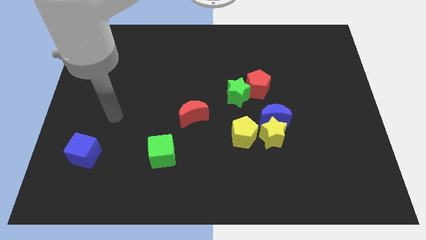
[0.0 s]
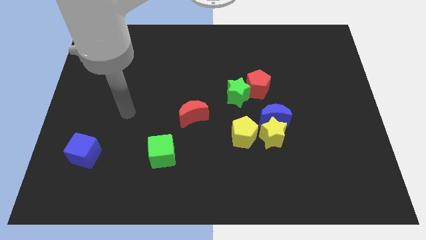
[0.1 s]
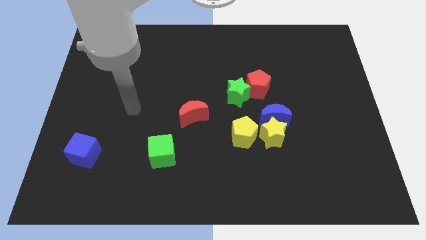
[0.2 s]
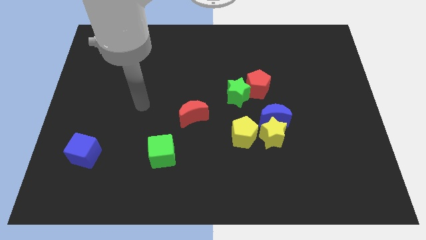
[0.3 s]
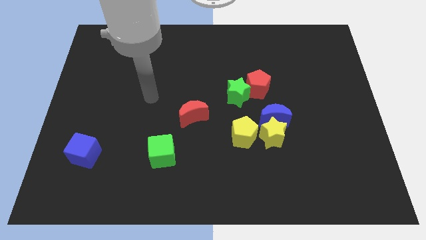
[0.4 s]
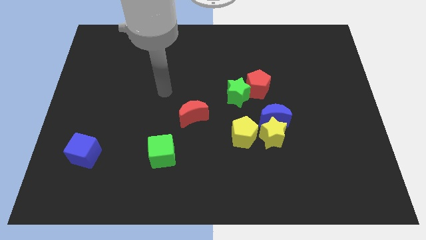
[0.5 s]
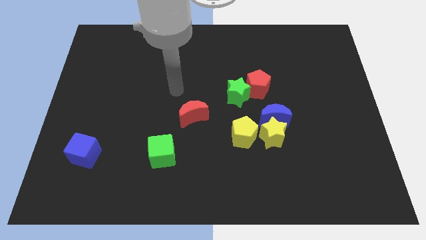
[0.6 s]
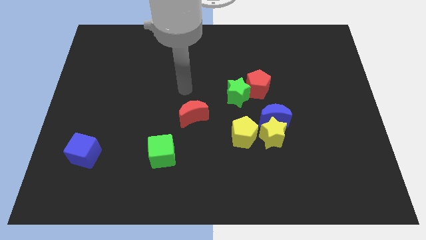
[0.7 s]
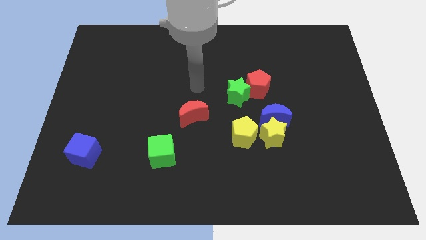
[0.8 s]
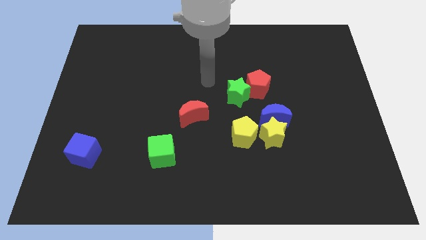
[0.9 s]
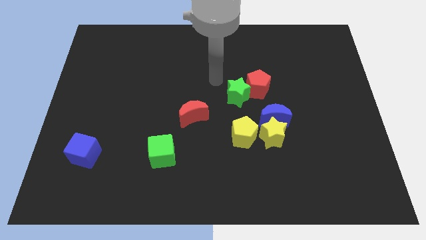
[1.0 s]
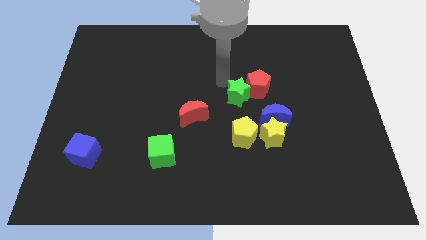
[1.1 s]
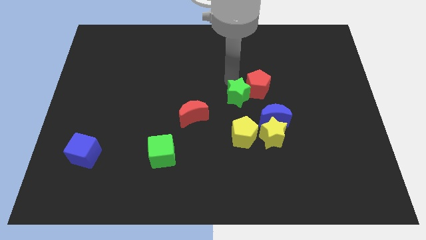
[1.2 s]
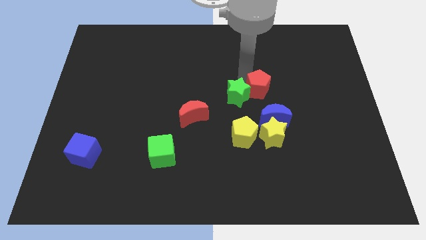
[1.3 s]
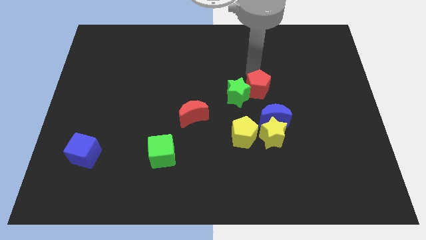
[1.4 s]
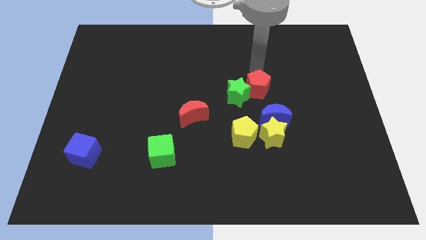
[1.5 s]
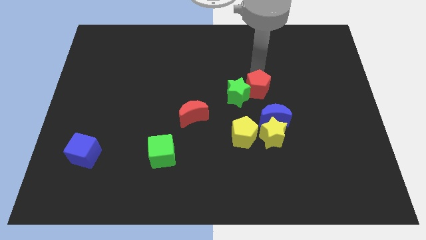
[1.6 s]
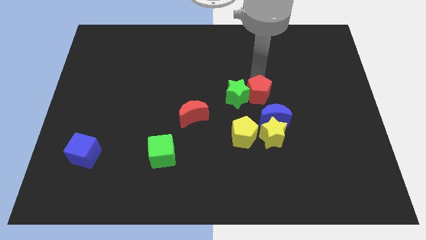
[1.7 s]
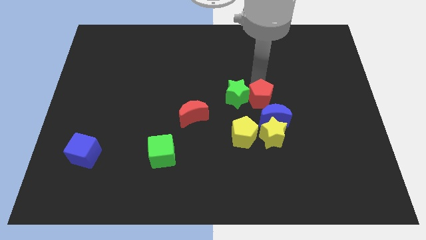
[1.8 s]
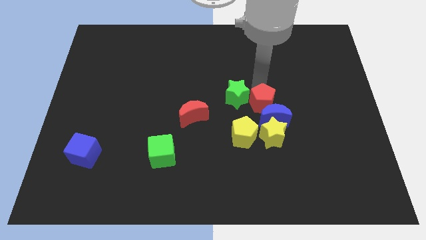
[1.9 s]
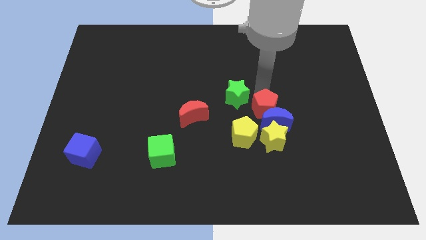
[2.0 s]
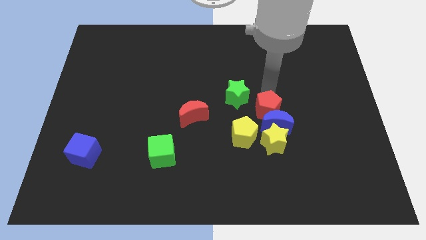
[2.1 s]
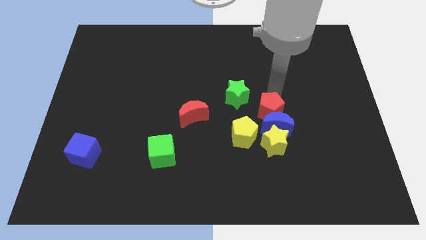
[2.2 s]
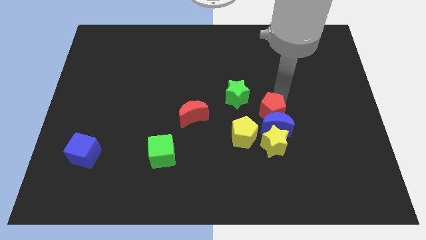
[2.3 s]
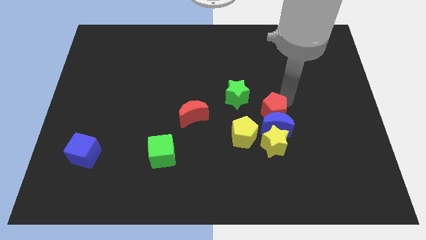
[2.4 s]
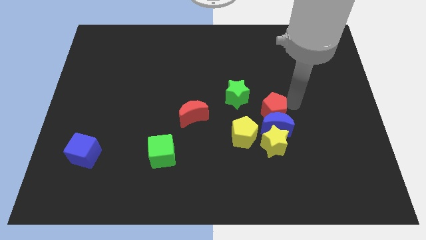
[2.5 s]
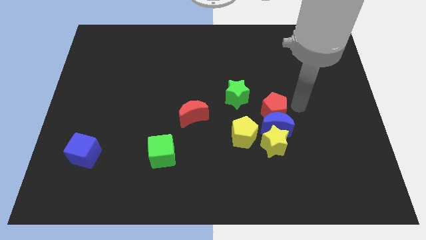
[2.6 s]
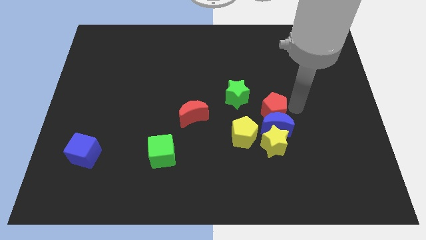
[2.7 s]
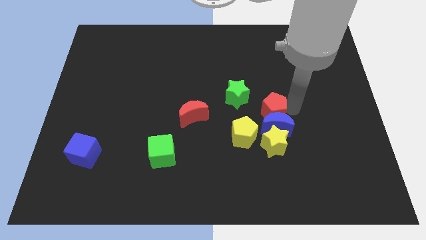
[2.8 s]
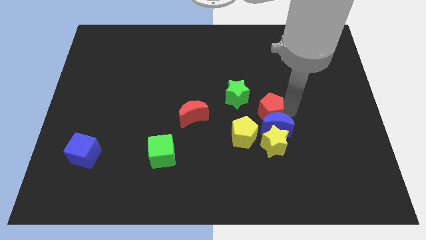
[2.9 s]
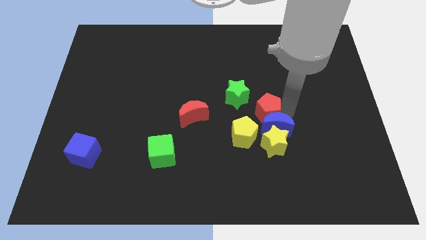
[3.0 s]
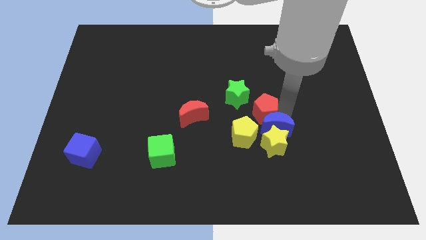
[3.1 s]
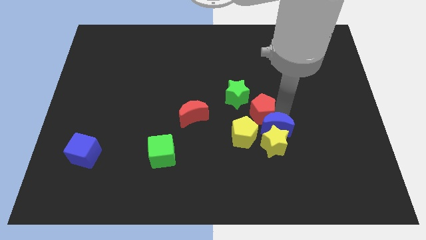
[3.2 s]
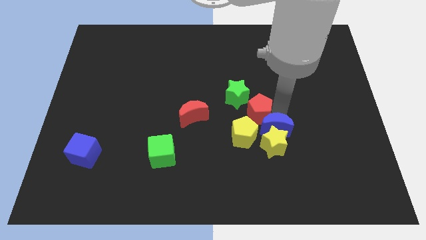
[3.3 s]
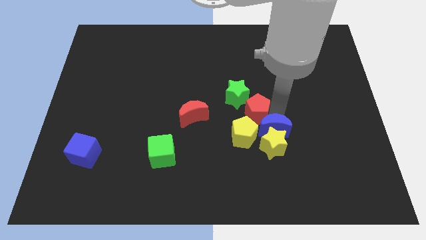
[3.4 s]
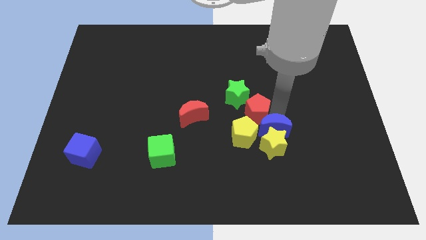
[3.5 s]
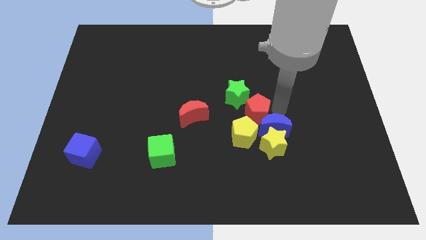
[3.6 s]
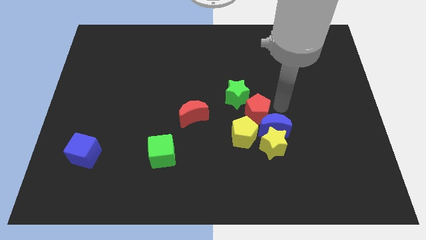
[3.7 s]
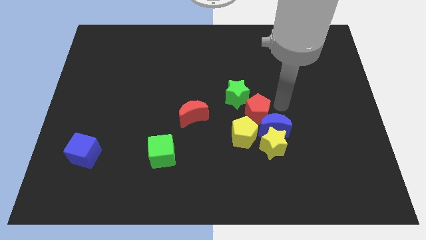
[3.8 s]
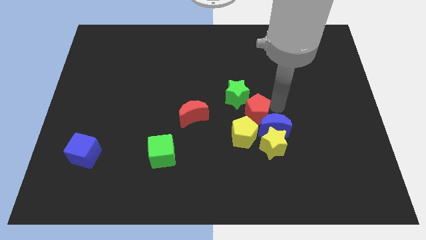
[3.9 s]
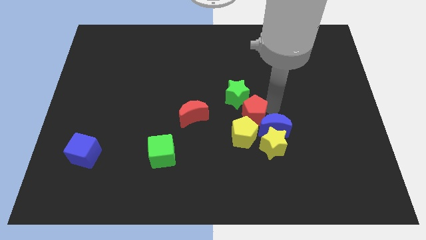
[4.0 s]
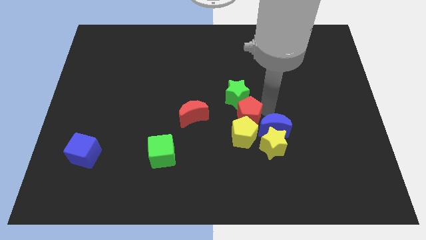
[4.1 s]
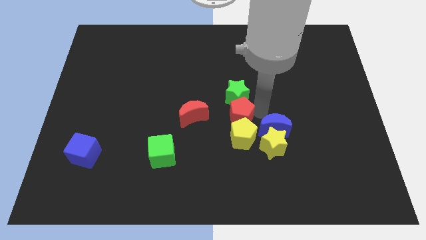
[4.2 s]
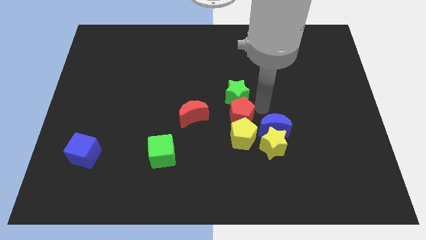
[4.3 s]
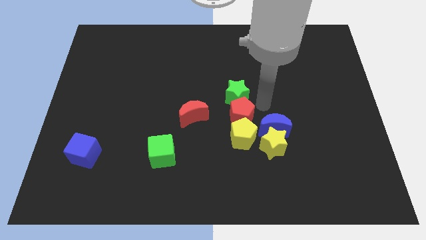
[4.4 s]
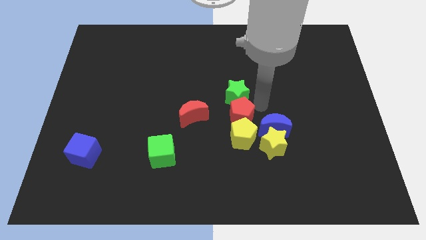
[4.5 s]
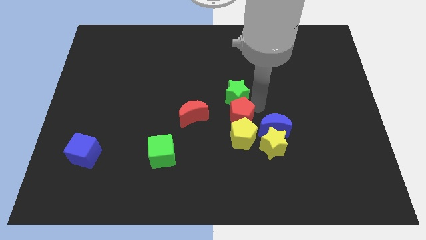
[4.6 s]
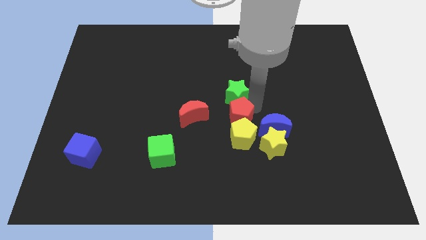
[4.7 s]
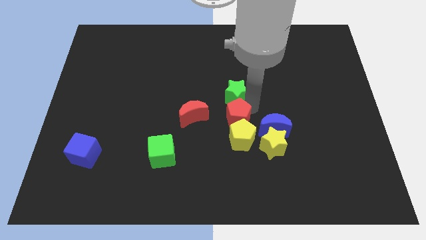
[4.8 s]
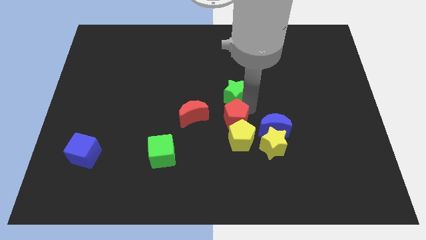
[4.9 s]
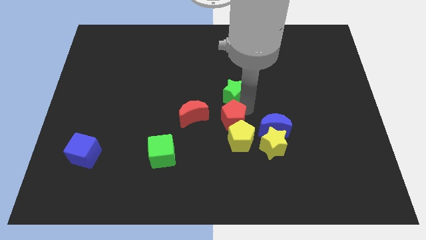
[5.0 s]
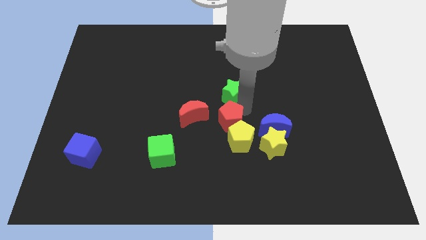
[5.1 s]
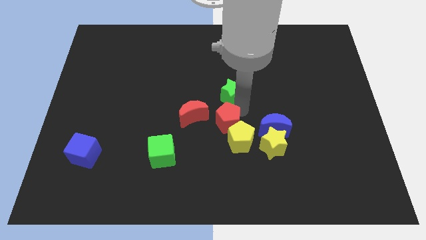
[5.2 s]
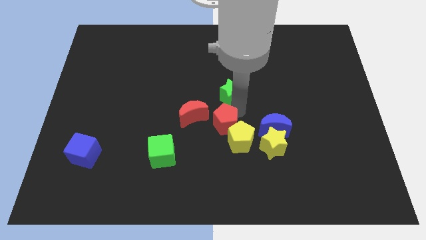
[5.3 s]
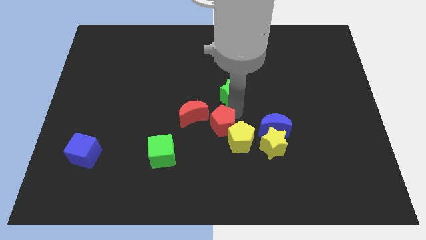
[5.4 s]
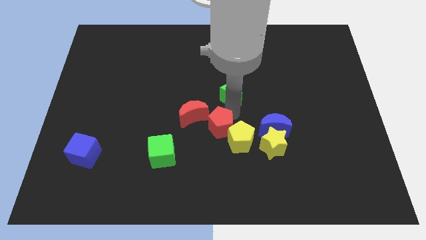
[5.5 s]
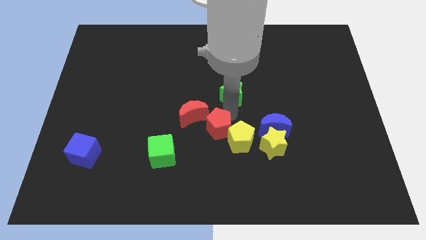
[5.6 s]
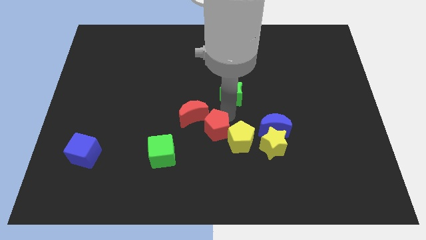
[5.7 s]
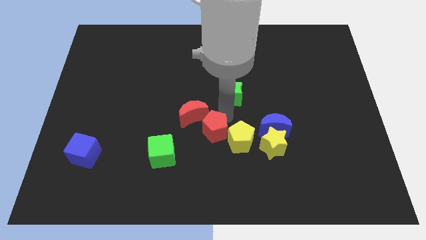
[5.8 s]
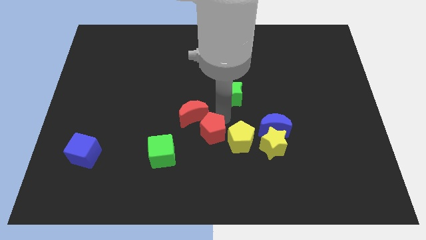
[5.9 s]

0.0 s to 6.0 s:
put the red pentagon to the top right of the green cube

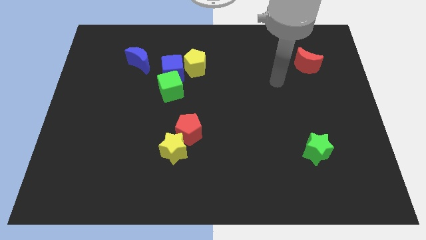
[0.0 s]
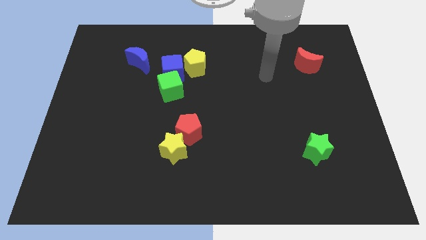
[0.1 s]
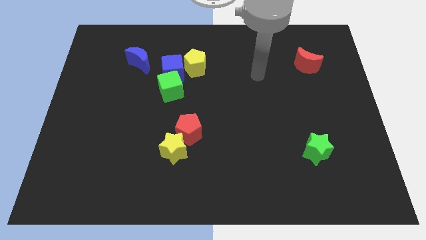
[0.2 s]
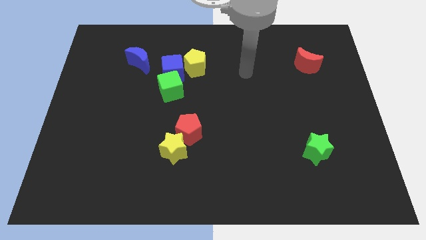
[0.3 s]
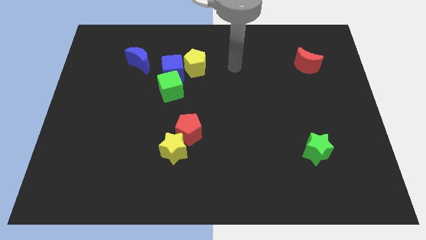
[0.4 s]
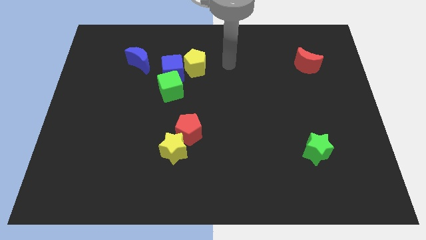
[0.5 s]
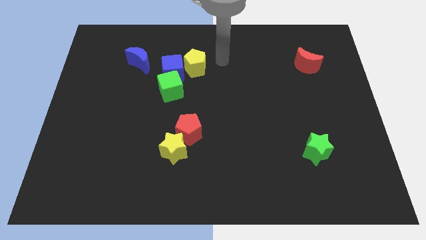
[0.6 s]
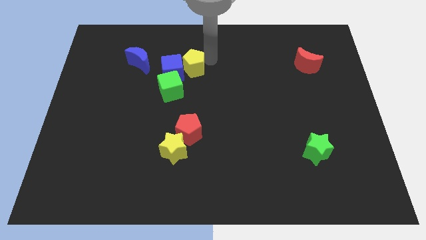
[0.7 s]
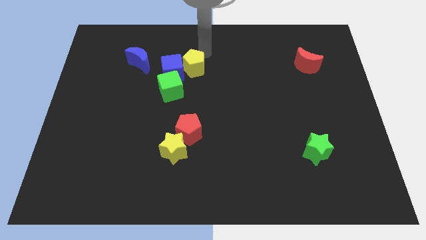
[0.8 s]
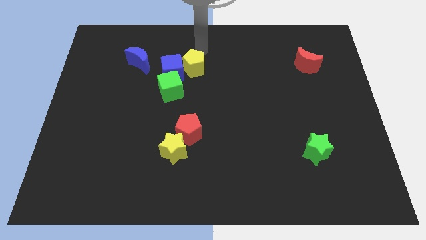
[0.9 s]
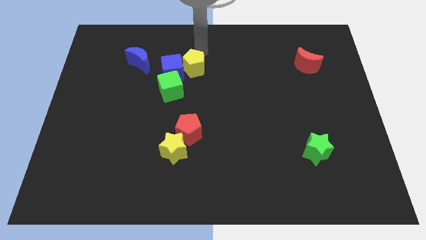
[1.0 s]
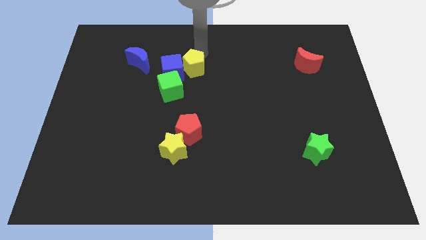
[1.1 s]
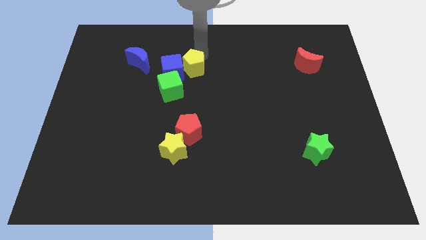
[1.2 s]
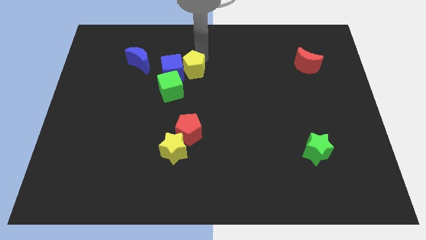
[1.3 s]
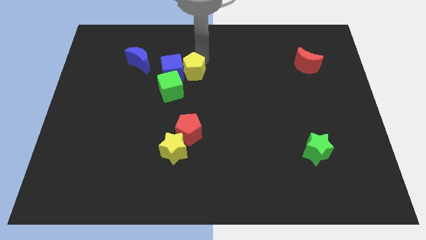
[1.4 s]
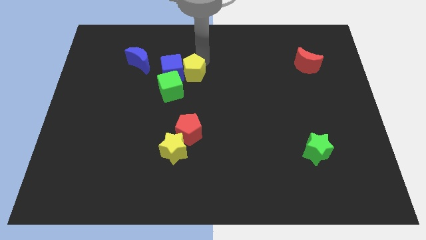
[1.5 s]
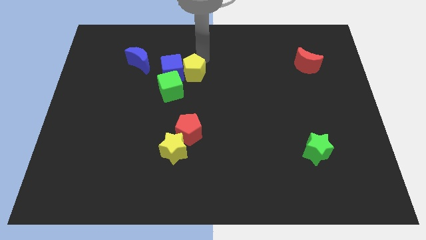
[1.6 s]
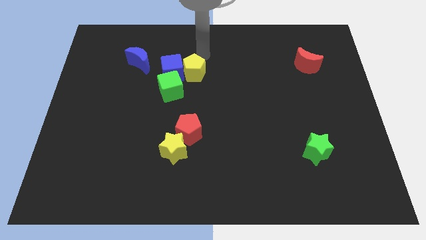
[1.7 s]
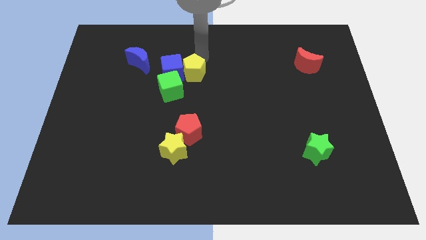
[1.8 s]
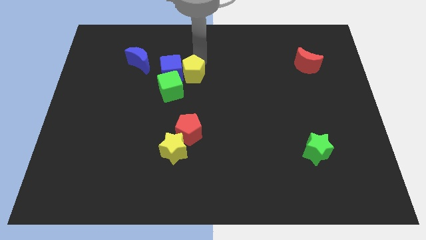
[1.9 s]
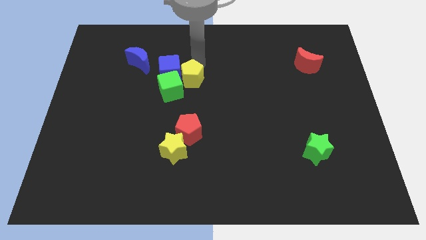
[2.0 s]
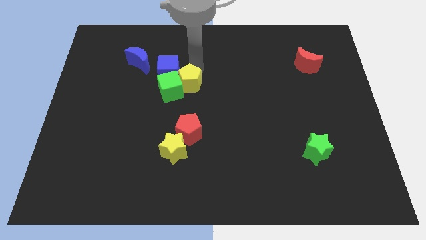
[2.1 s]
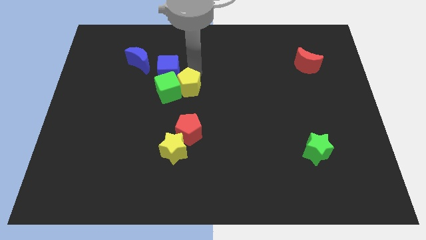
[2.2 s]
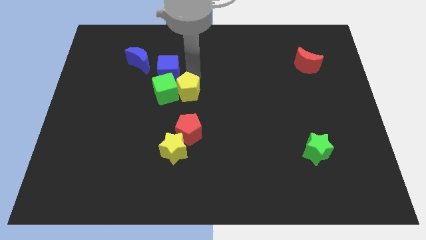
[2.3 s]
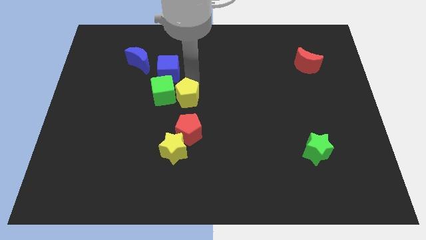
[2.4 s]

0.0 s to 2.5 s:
move the yellow pentagon above the yellow star
